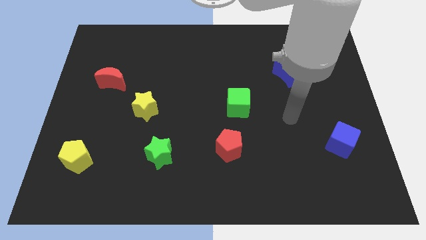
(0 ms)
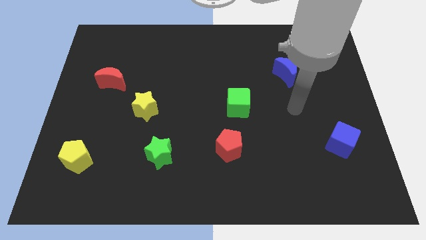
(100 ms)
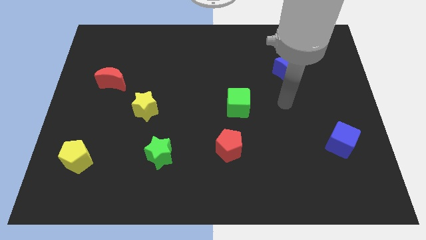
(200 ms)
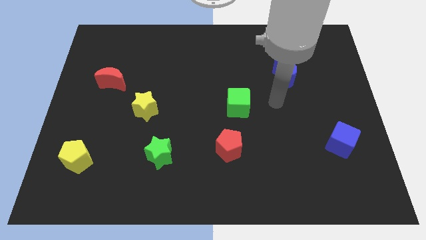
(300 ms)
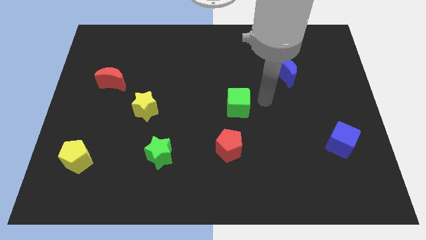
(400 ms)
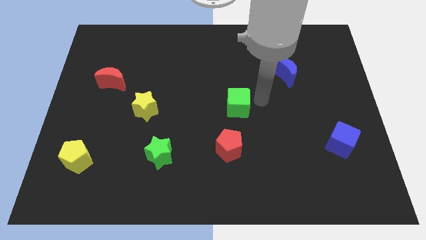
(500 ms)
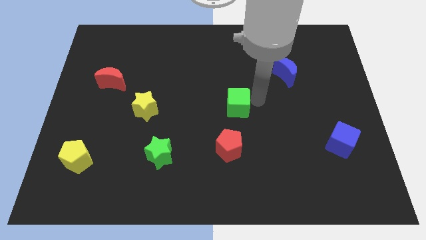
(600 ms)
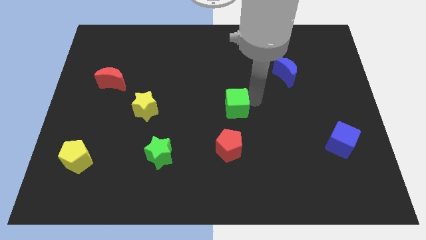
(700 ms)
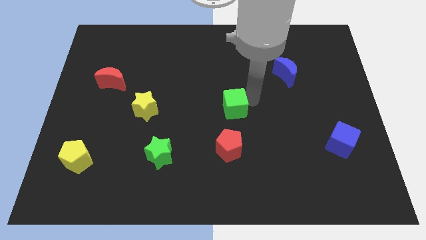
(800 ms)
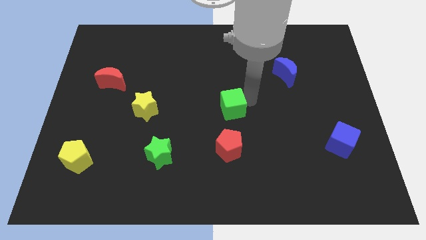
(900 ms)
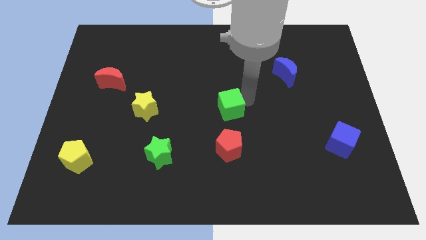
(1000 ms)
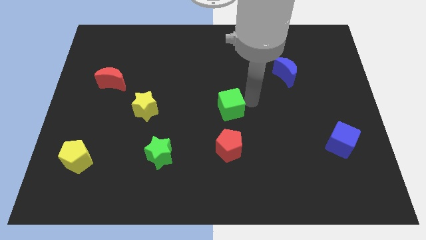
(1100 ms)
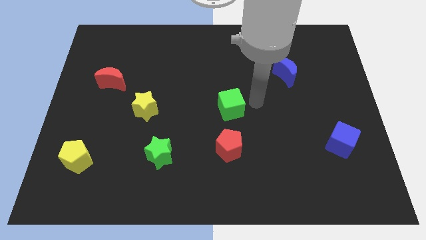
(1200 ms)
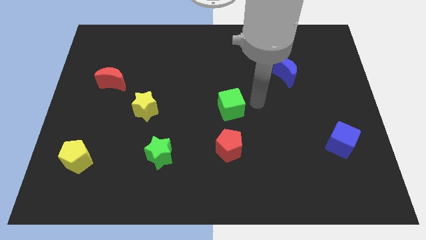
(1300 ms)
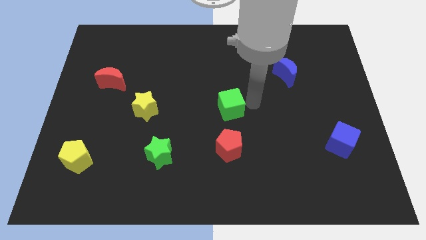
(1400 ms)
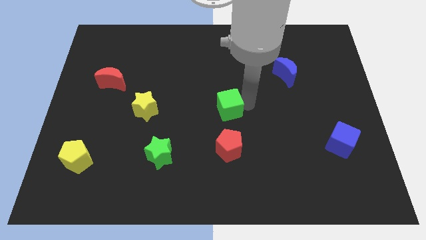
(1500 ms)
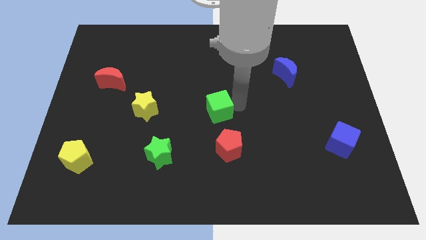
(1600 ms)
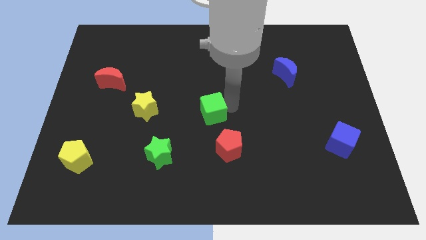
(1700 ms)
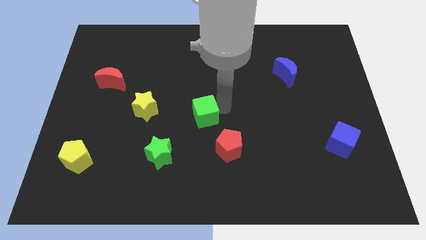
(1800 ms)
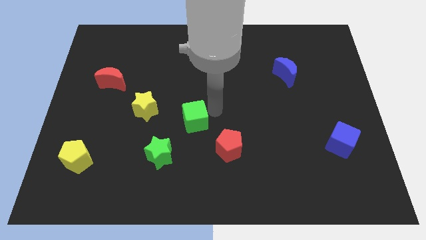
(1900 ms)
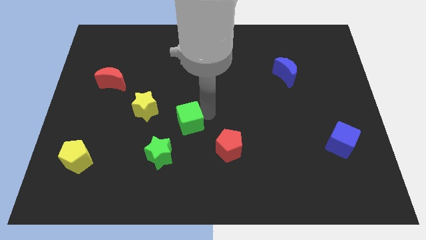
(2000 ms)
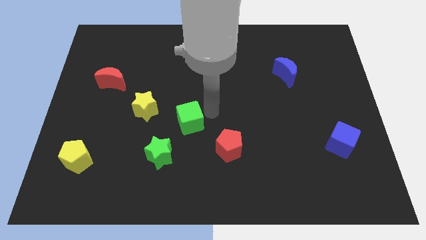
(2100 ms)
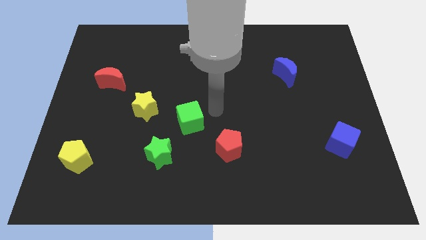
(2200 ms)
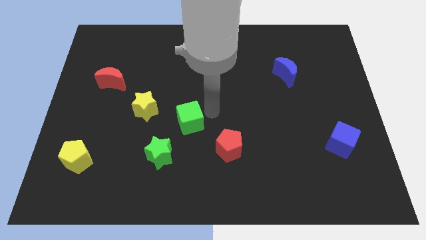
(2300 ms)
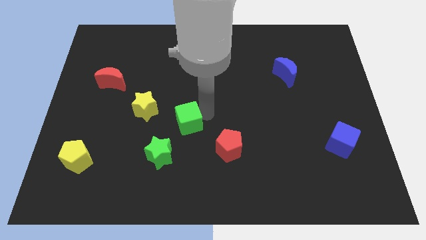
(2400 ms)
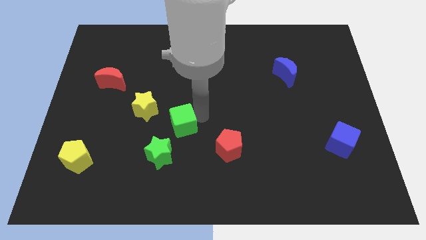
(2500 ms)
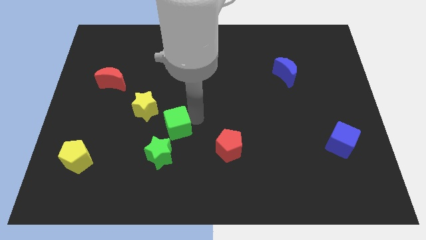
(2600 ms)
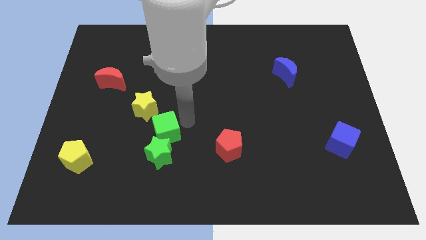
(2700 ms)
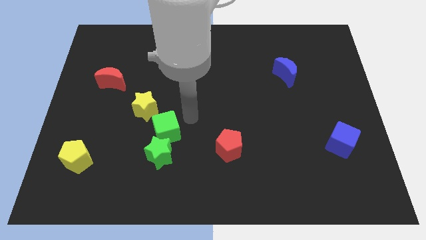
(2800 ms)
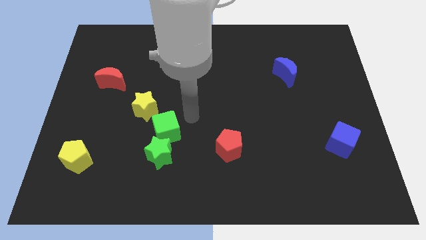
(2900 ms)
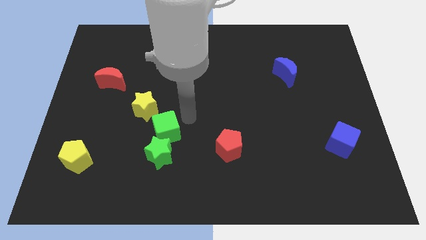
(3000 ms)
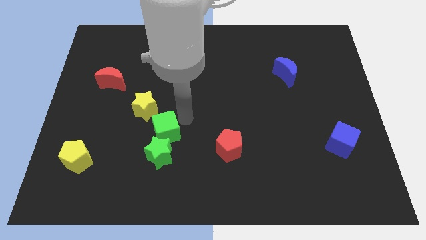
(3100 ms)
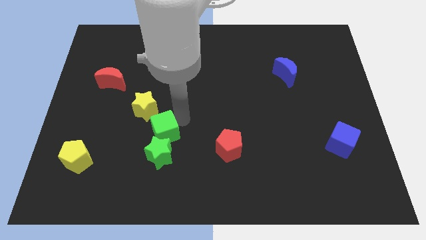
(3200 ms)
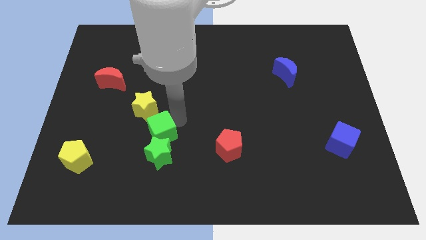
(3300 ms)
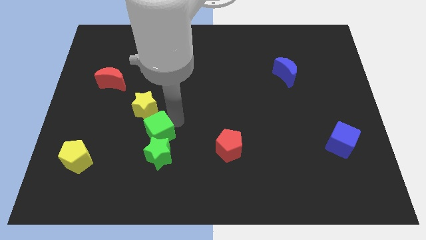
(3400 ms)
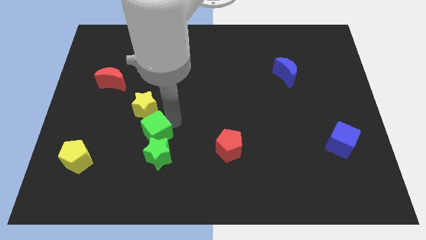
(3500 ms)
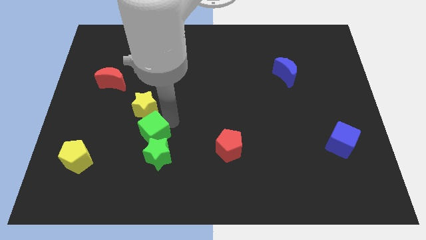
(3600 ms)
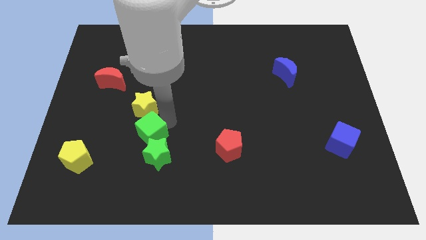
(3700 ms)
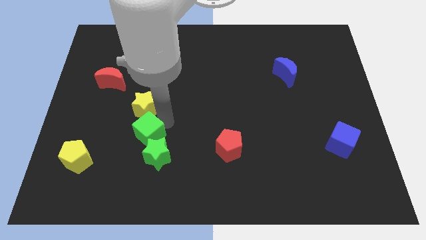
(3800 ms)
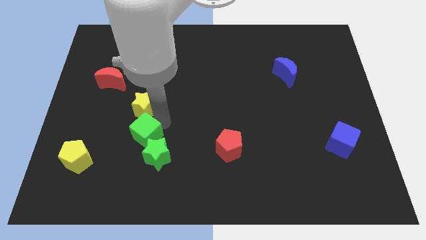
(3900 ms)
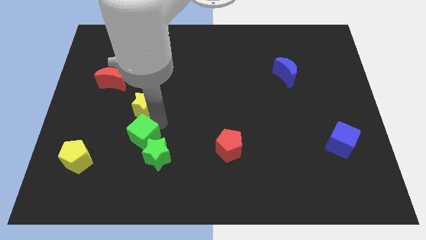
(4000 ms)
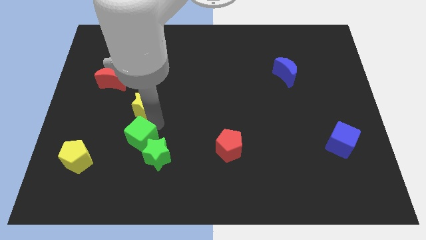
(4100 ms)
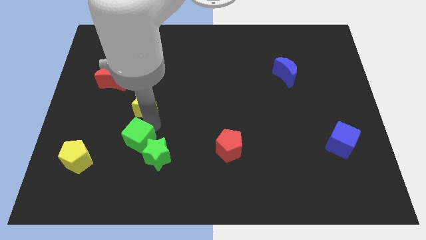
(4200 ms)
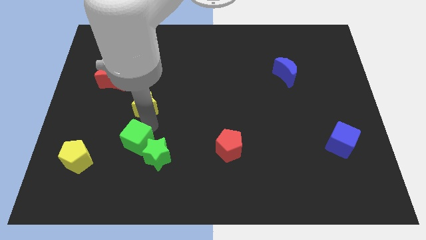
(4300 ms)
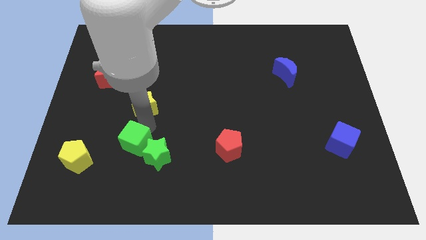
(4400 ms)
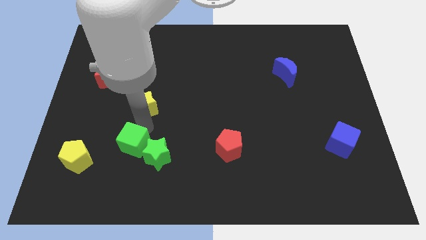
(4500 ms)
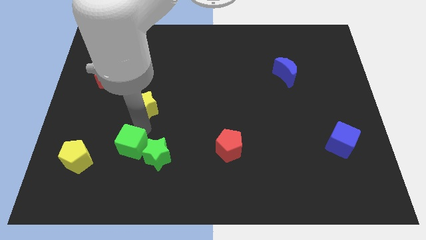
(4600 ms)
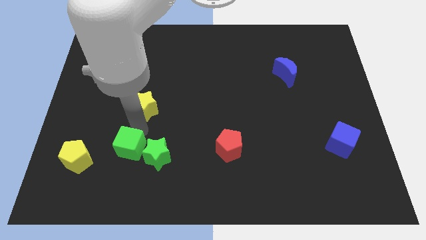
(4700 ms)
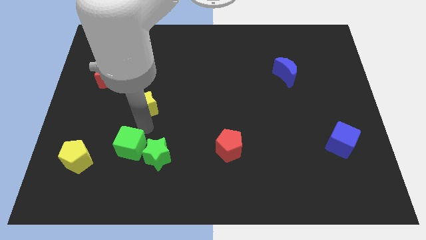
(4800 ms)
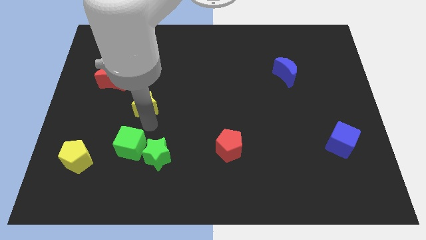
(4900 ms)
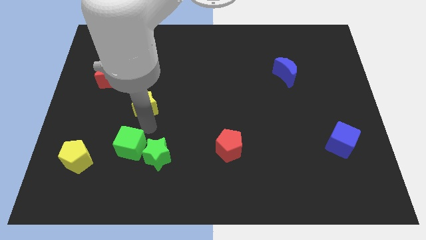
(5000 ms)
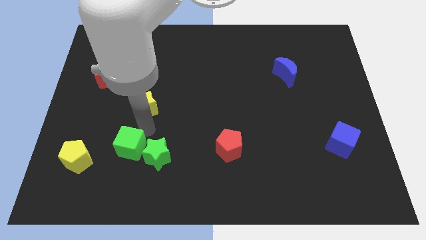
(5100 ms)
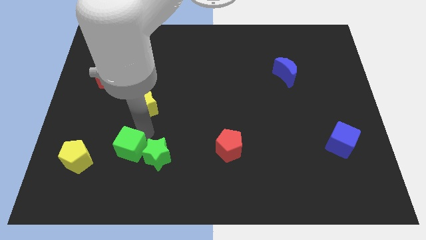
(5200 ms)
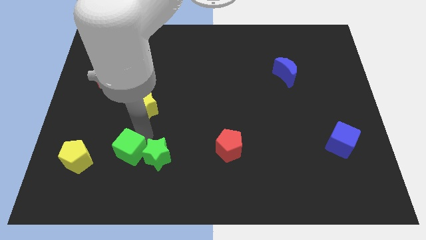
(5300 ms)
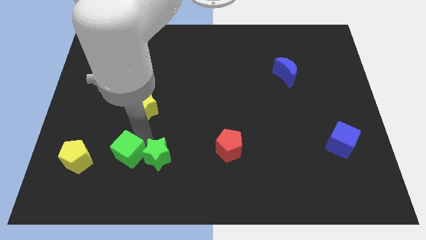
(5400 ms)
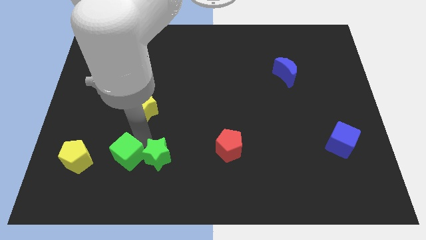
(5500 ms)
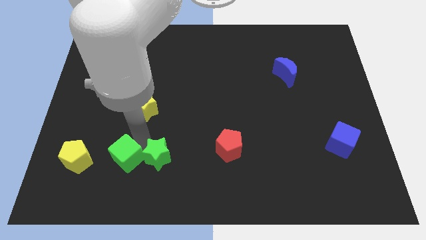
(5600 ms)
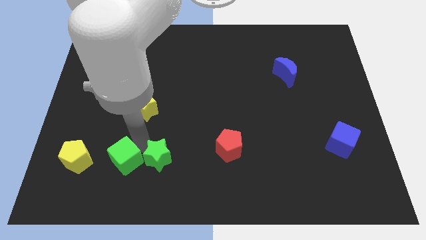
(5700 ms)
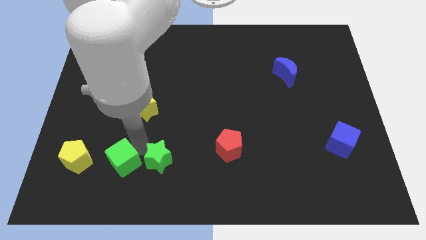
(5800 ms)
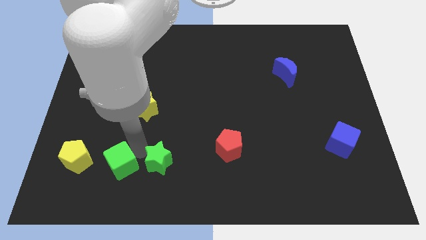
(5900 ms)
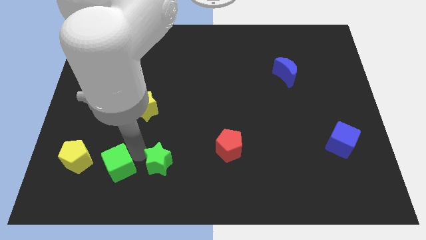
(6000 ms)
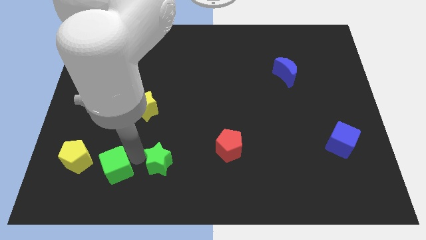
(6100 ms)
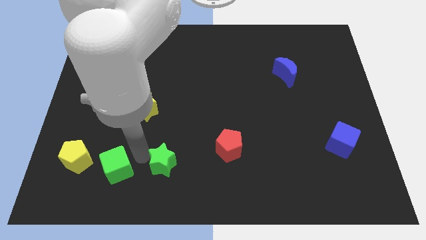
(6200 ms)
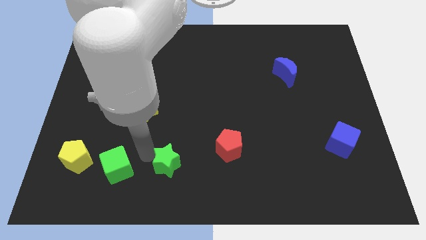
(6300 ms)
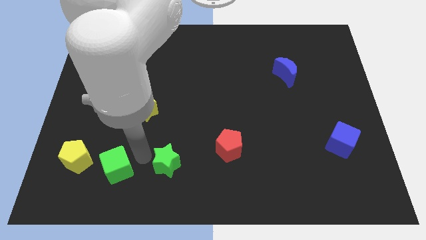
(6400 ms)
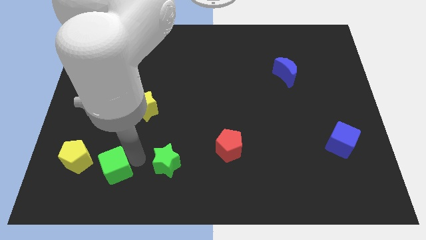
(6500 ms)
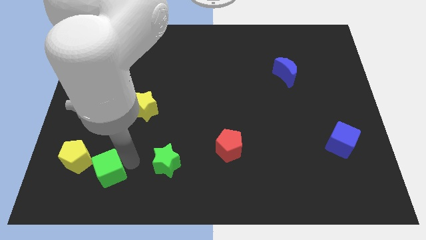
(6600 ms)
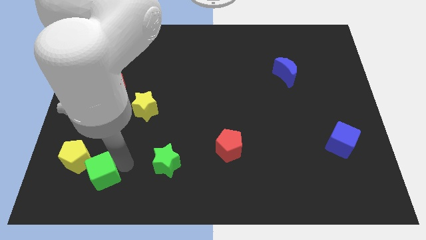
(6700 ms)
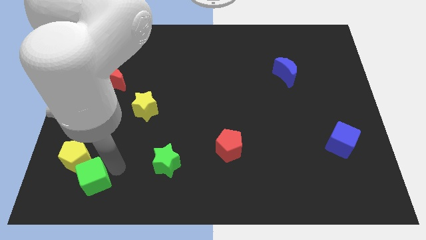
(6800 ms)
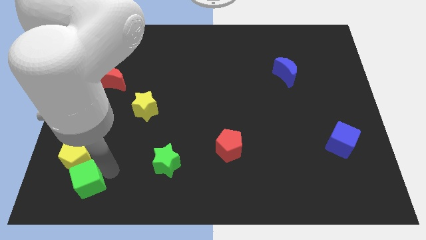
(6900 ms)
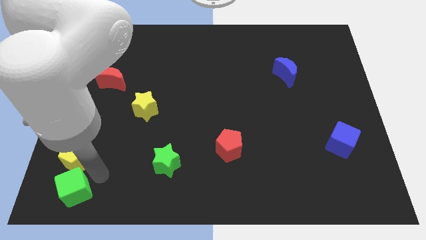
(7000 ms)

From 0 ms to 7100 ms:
move the green cube to the bottom left

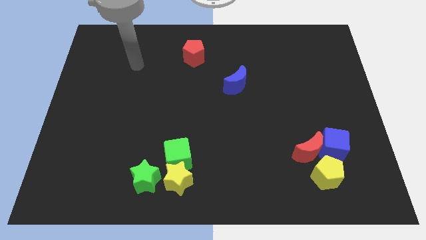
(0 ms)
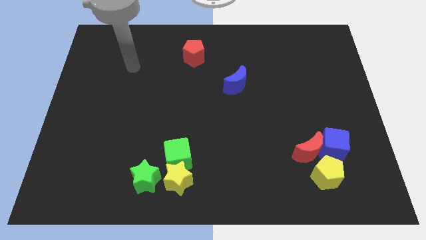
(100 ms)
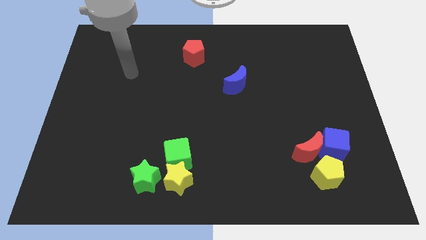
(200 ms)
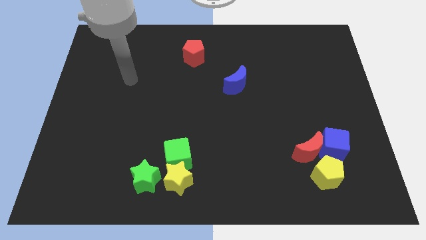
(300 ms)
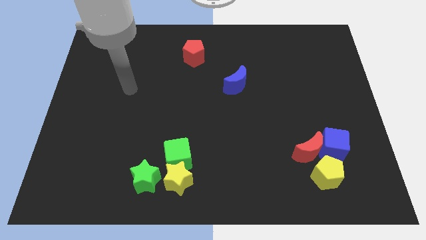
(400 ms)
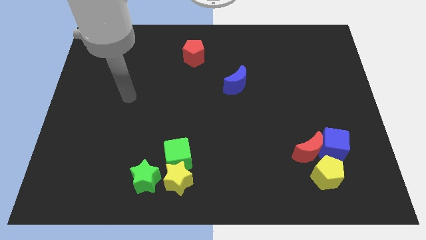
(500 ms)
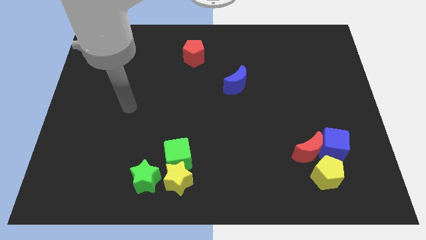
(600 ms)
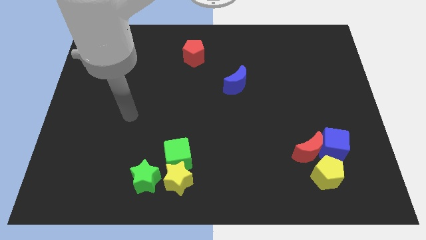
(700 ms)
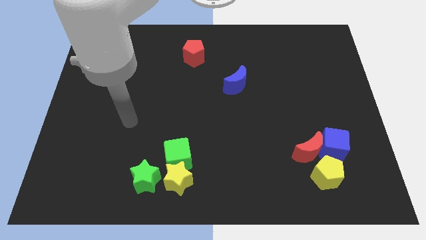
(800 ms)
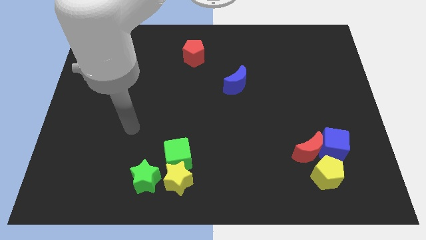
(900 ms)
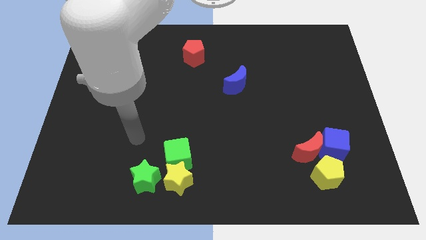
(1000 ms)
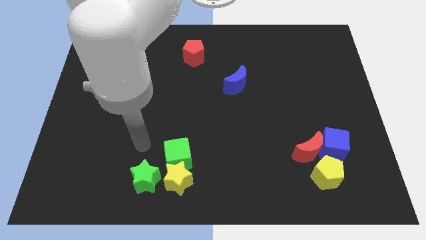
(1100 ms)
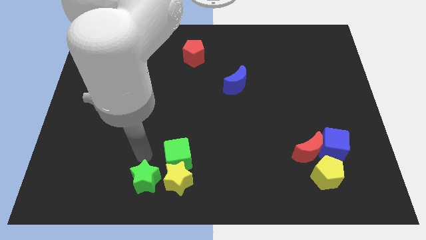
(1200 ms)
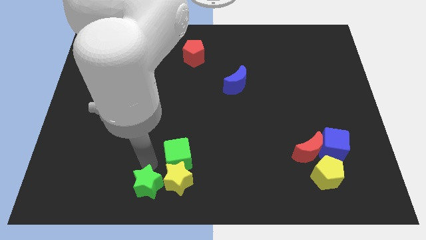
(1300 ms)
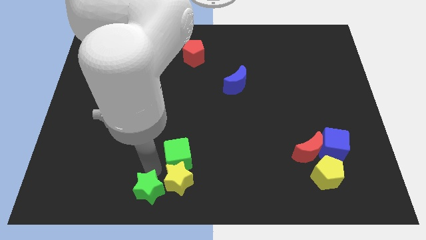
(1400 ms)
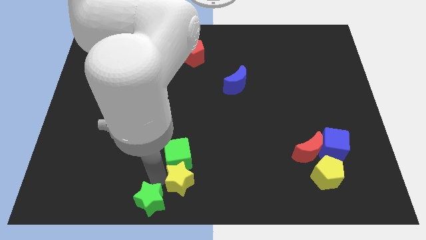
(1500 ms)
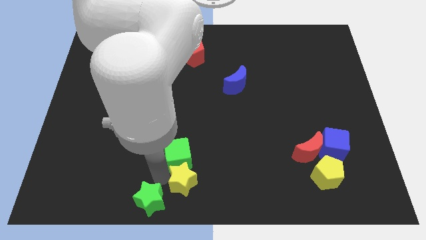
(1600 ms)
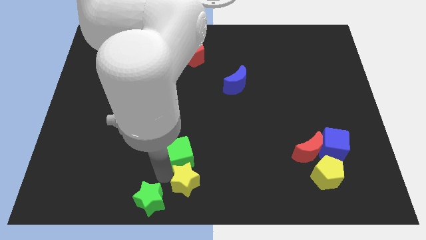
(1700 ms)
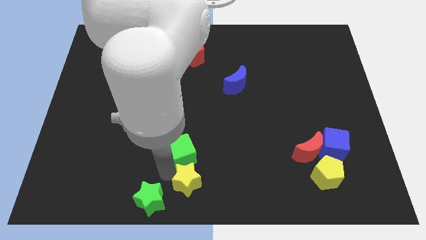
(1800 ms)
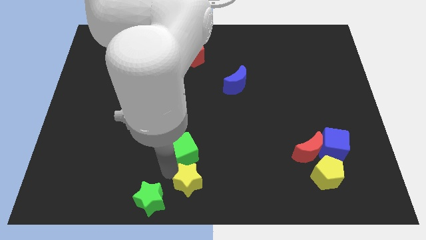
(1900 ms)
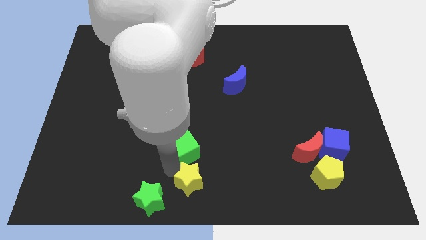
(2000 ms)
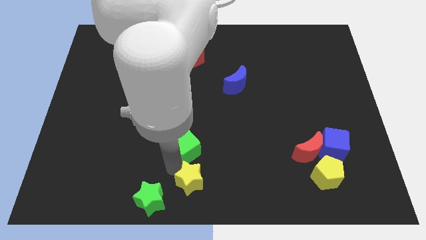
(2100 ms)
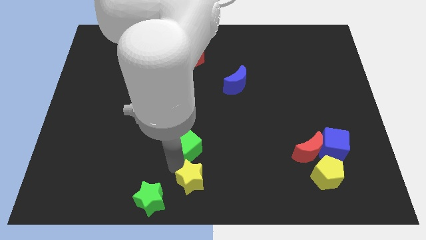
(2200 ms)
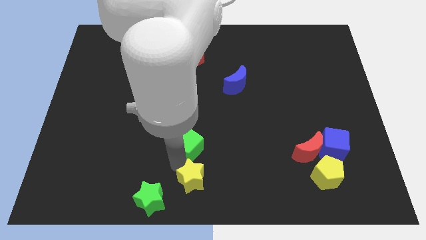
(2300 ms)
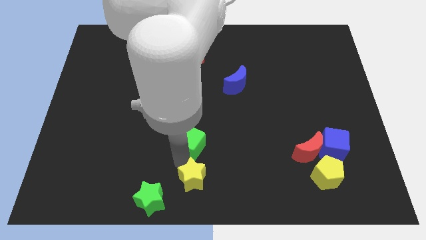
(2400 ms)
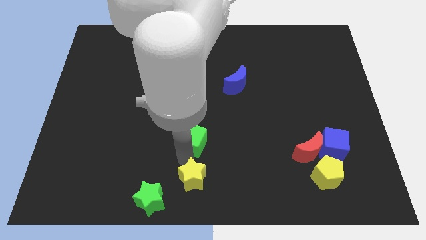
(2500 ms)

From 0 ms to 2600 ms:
push the green cube to the center of the board
